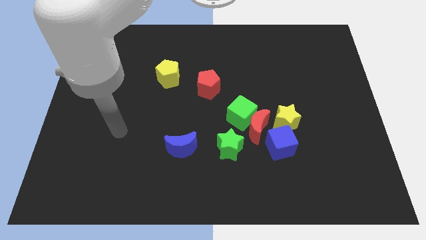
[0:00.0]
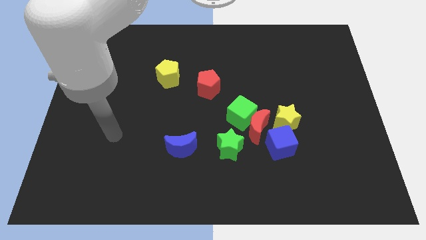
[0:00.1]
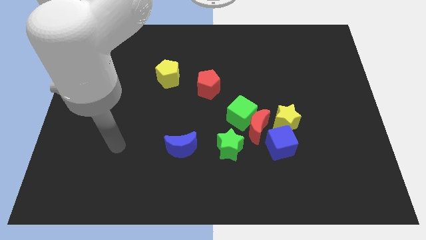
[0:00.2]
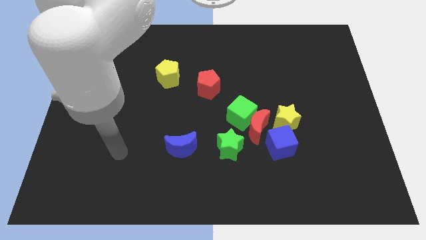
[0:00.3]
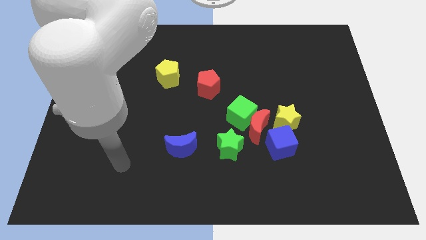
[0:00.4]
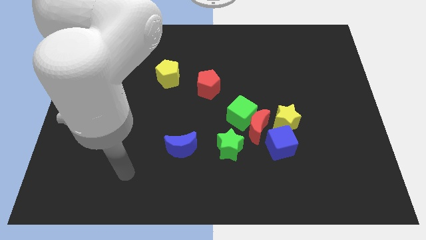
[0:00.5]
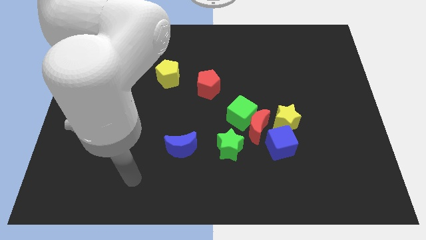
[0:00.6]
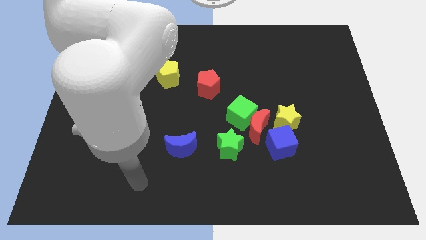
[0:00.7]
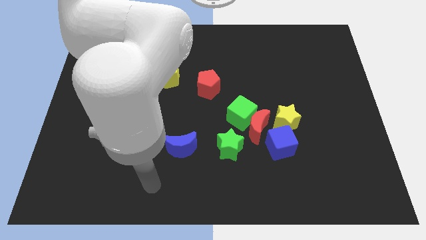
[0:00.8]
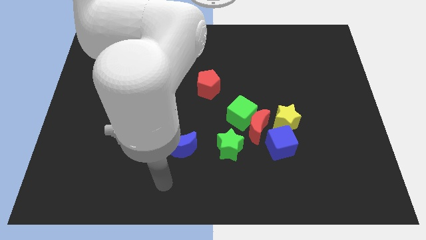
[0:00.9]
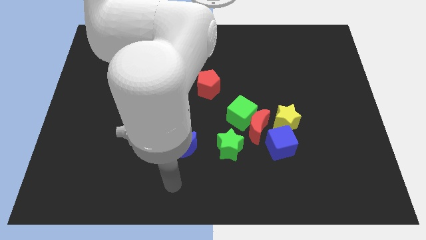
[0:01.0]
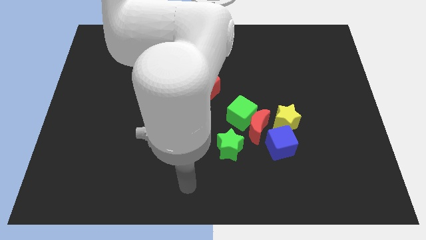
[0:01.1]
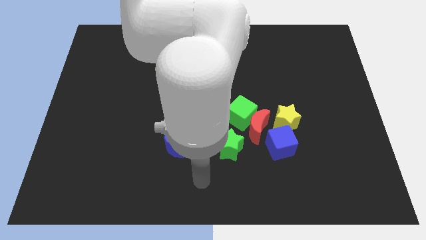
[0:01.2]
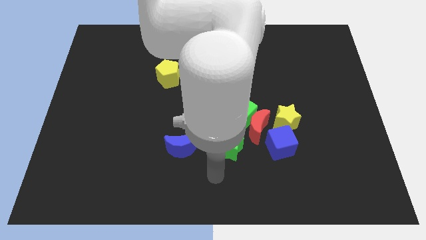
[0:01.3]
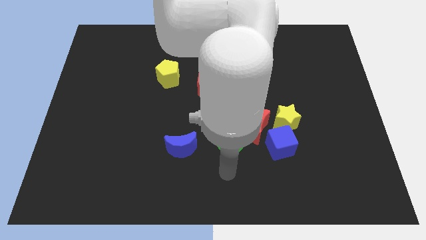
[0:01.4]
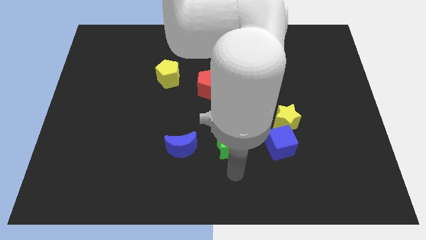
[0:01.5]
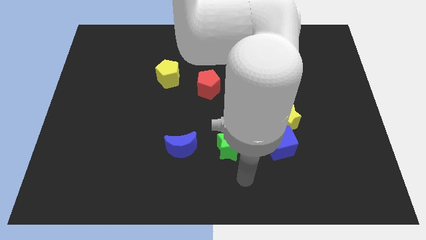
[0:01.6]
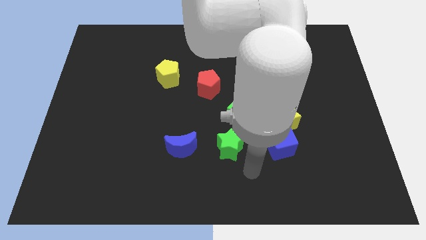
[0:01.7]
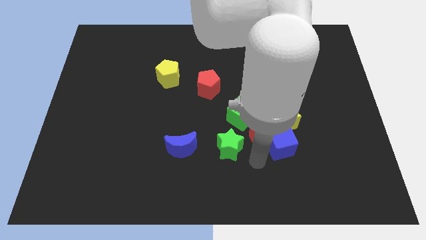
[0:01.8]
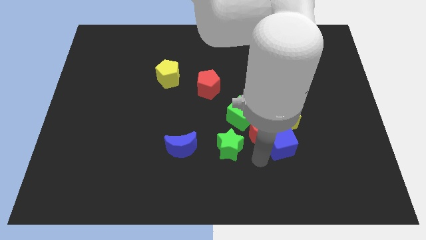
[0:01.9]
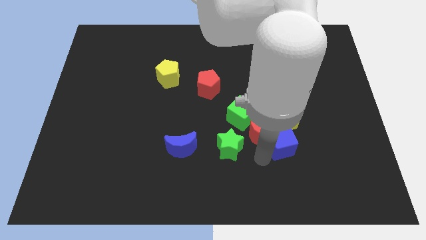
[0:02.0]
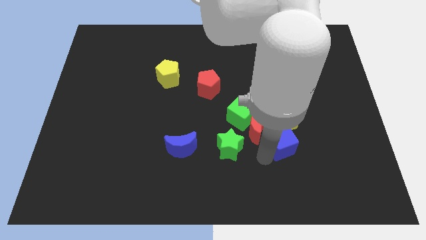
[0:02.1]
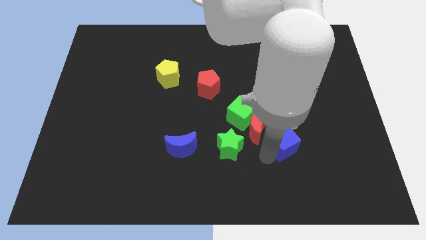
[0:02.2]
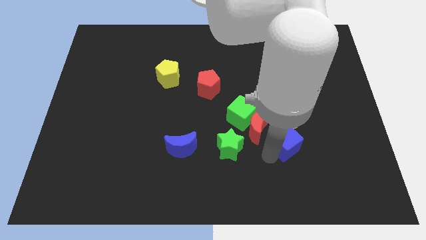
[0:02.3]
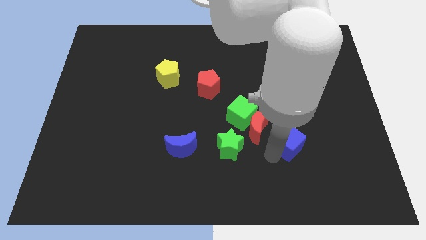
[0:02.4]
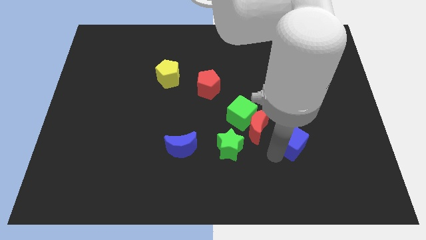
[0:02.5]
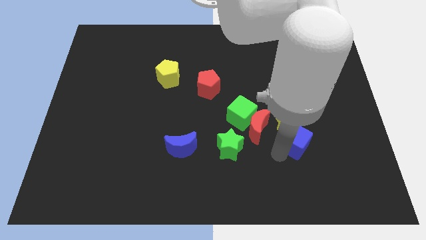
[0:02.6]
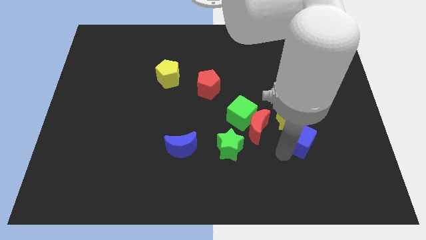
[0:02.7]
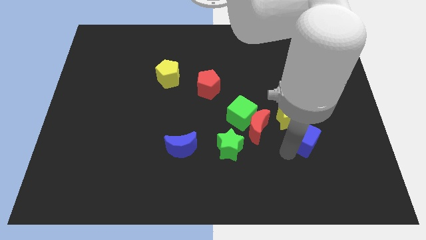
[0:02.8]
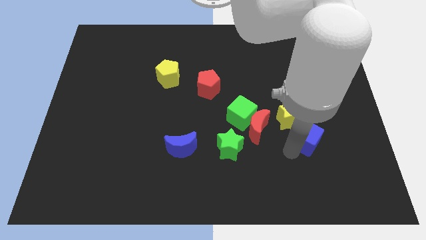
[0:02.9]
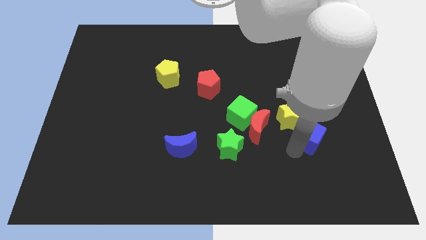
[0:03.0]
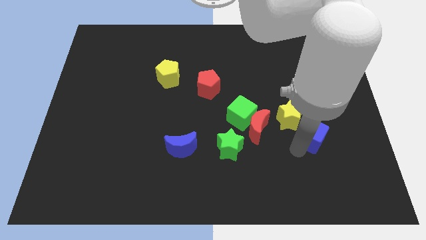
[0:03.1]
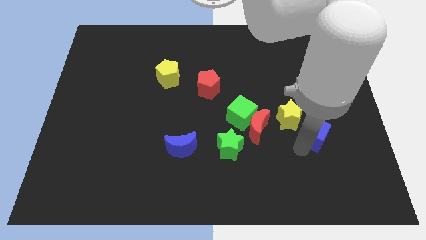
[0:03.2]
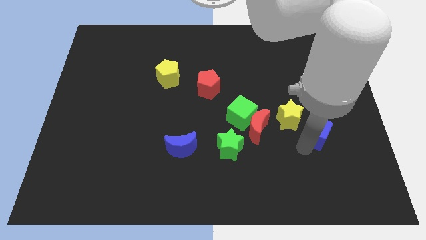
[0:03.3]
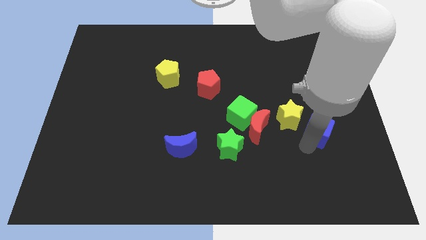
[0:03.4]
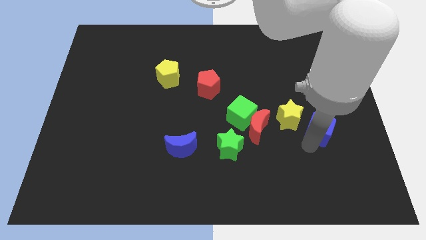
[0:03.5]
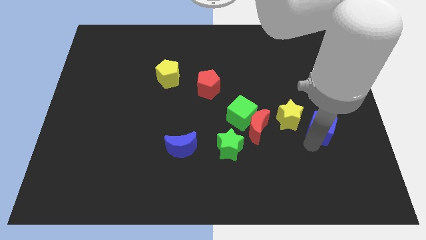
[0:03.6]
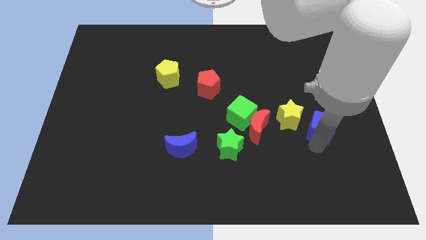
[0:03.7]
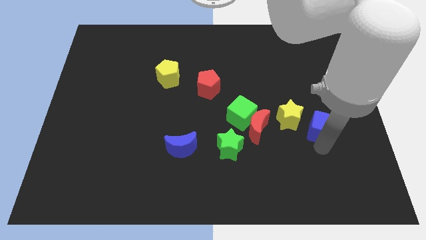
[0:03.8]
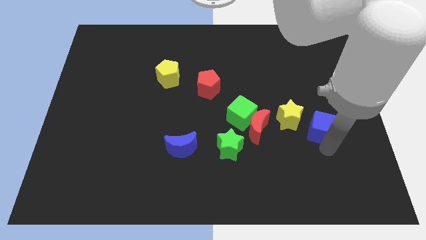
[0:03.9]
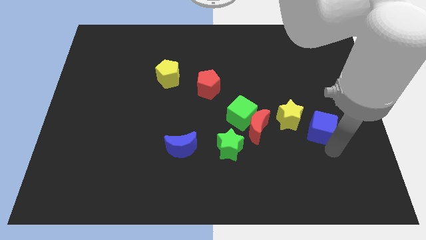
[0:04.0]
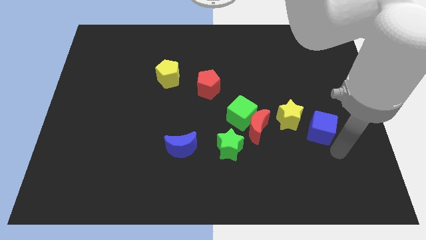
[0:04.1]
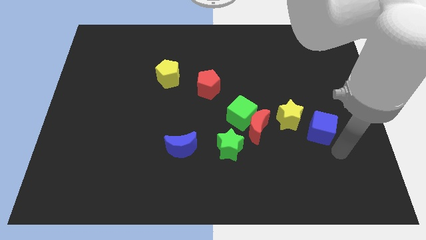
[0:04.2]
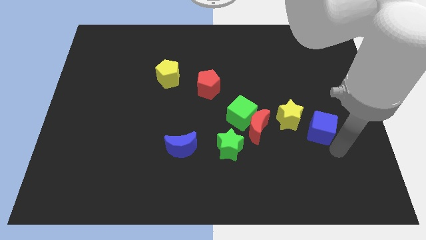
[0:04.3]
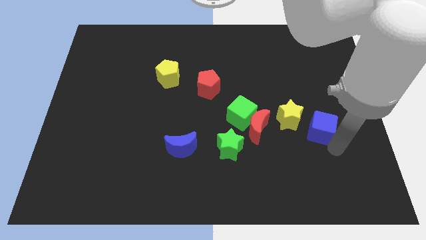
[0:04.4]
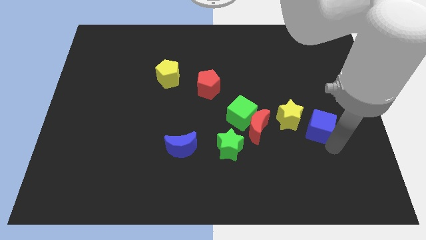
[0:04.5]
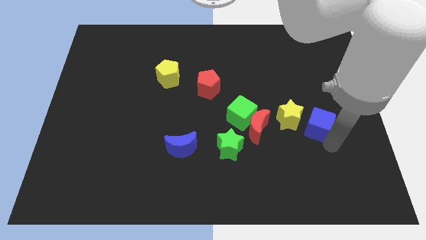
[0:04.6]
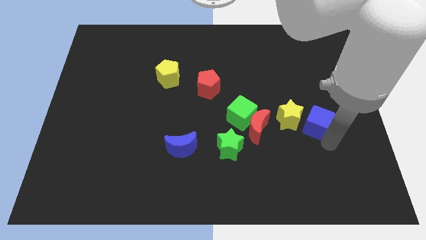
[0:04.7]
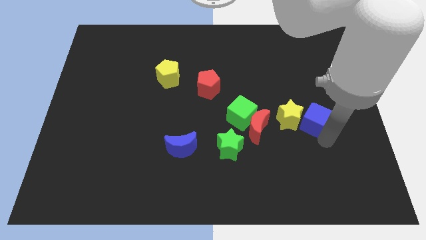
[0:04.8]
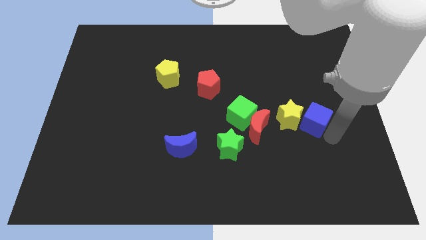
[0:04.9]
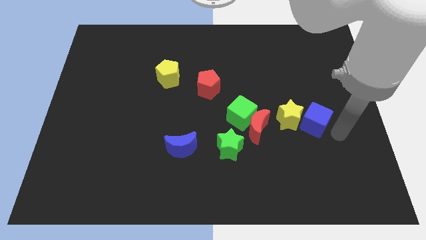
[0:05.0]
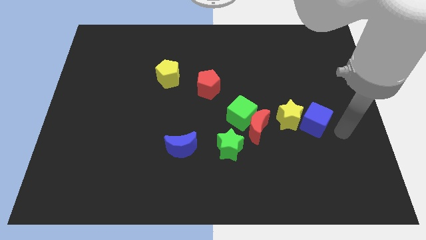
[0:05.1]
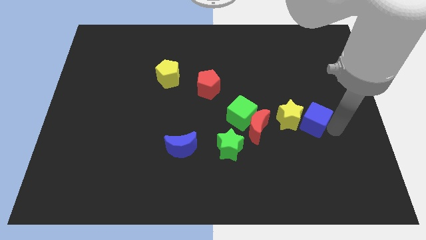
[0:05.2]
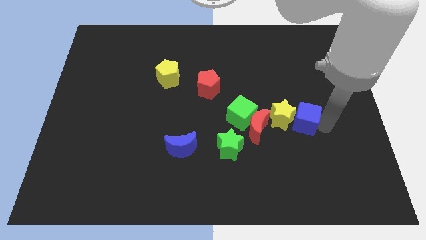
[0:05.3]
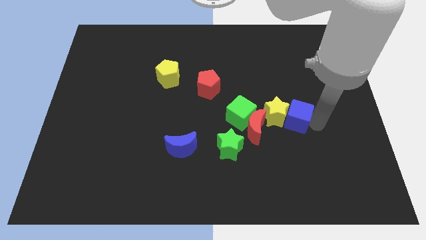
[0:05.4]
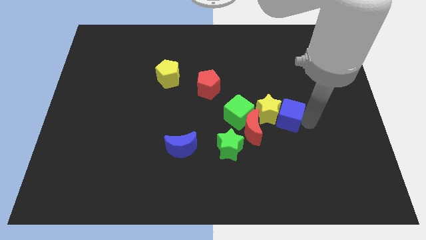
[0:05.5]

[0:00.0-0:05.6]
slide the blue cube to the top right side of the red moon

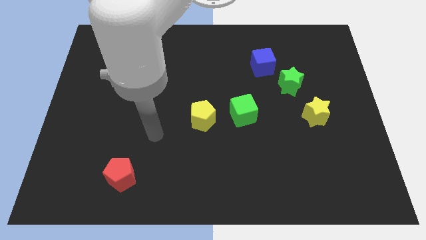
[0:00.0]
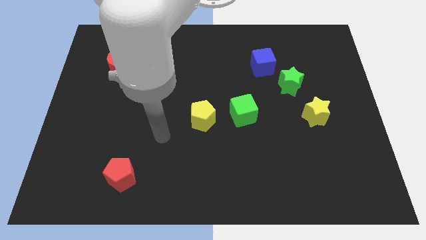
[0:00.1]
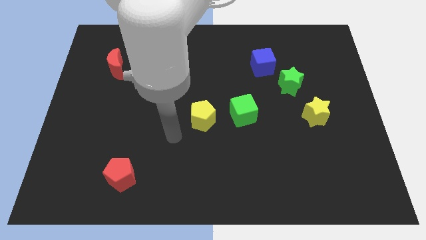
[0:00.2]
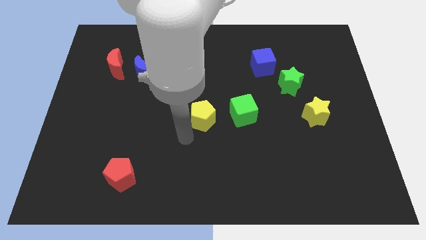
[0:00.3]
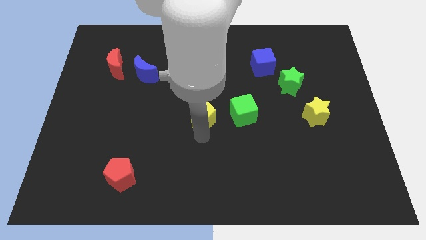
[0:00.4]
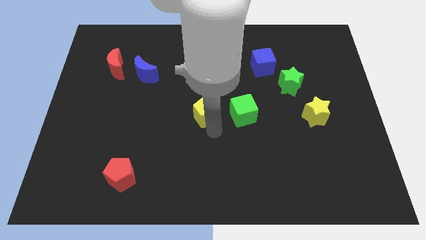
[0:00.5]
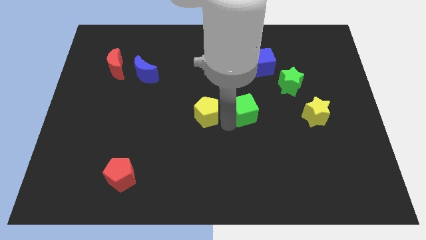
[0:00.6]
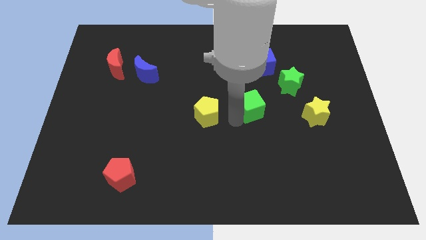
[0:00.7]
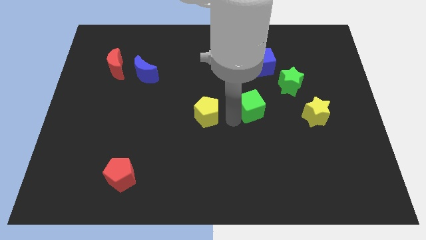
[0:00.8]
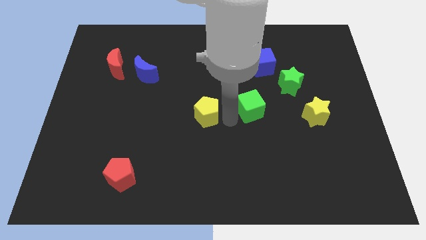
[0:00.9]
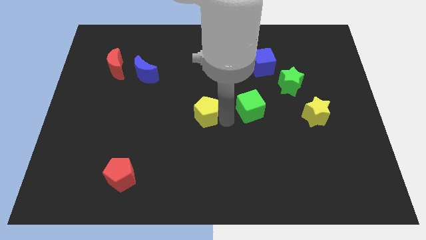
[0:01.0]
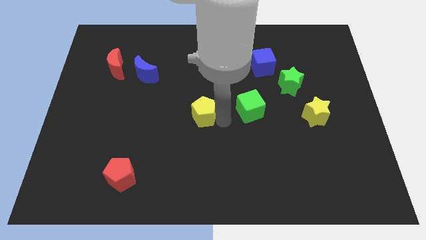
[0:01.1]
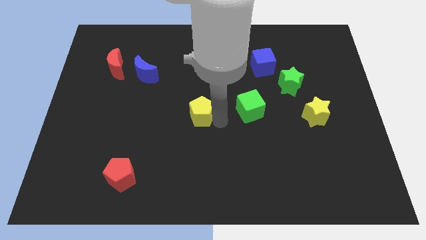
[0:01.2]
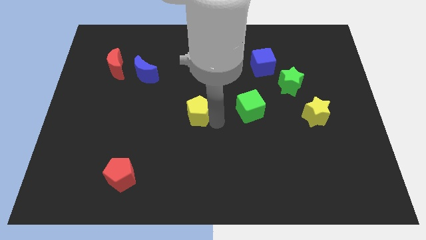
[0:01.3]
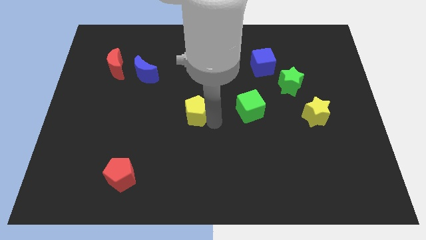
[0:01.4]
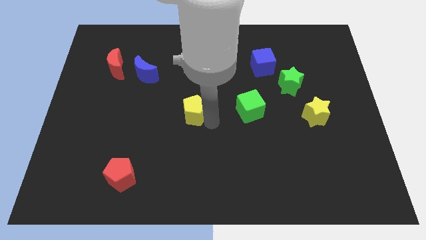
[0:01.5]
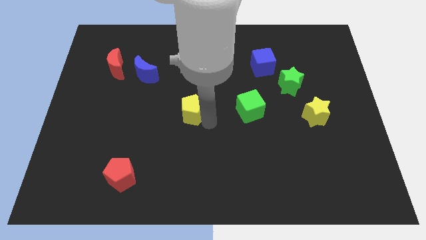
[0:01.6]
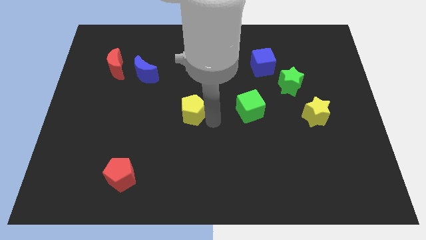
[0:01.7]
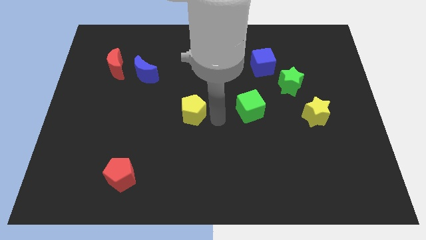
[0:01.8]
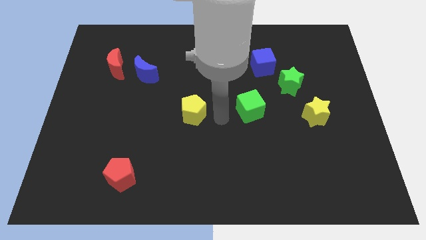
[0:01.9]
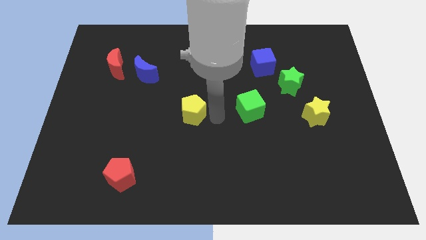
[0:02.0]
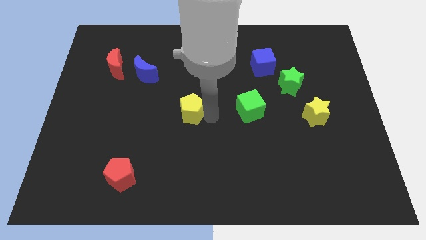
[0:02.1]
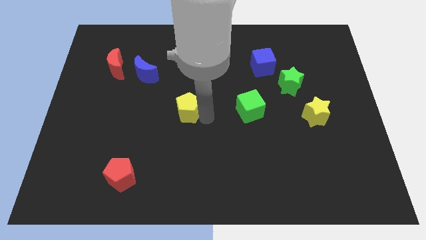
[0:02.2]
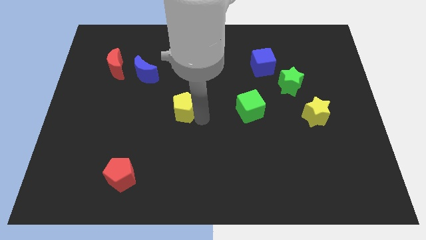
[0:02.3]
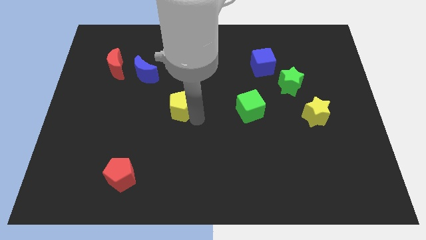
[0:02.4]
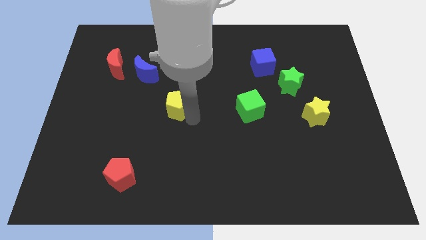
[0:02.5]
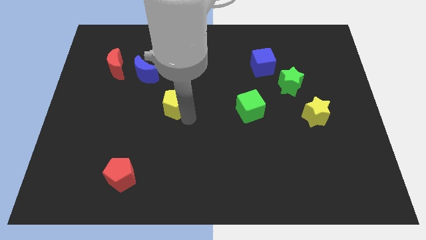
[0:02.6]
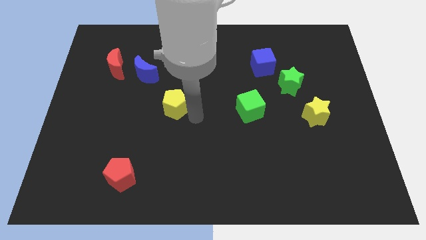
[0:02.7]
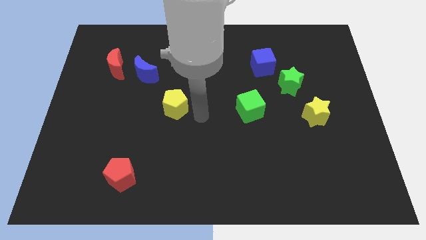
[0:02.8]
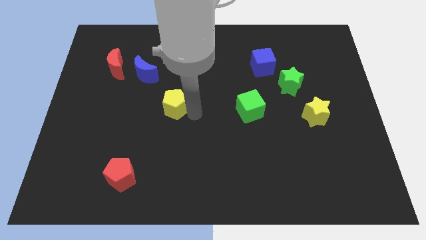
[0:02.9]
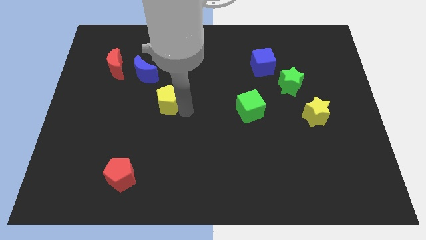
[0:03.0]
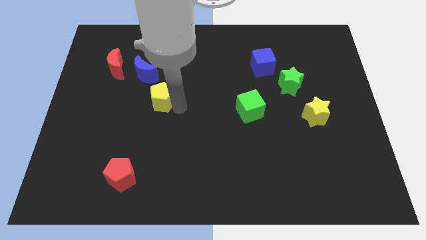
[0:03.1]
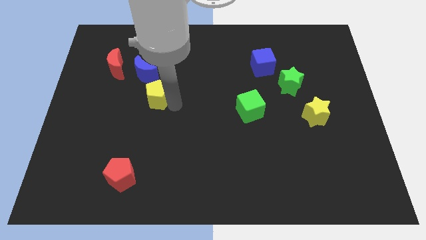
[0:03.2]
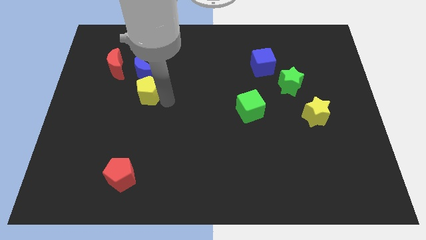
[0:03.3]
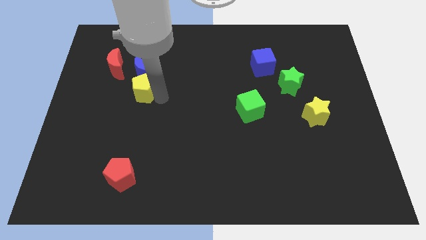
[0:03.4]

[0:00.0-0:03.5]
put the yellow pentagon to the bottom left of the blue moon
